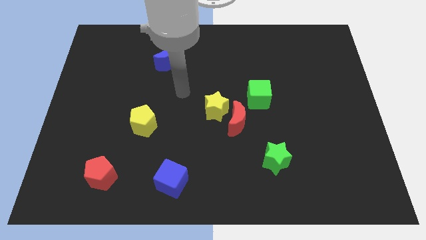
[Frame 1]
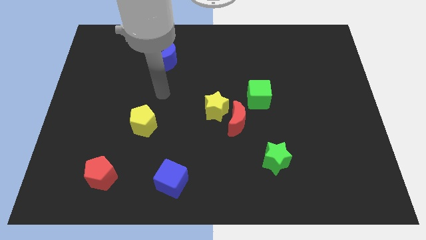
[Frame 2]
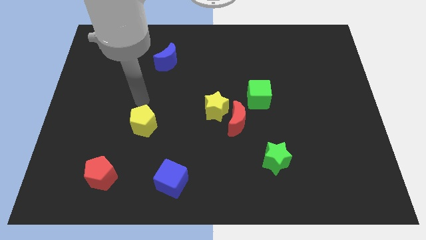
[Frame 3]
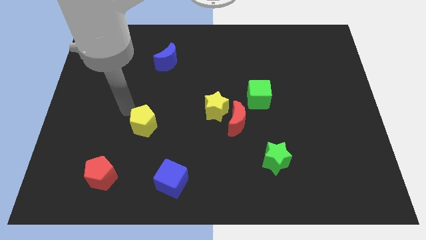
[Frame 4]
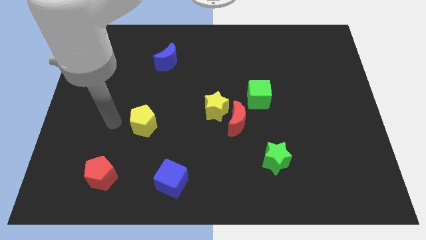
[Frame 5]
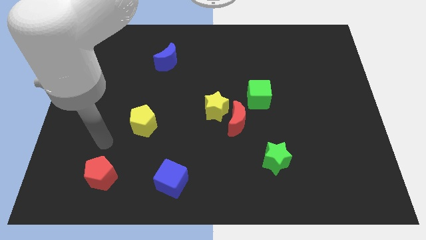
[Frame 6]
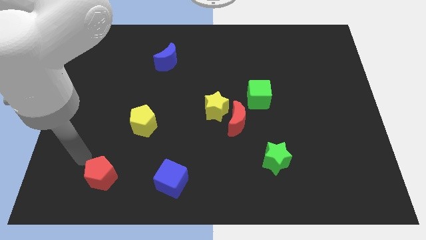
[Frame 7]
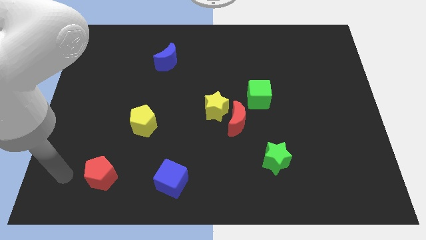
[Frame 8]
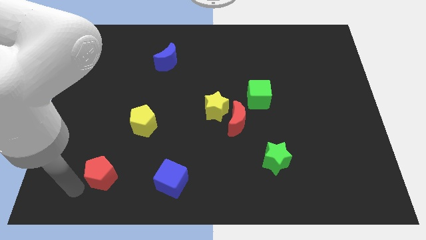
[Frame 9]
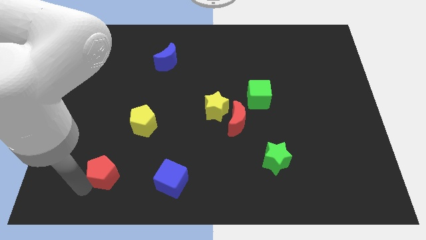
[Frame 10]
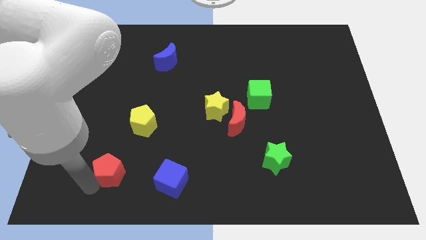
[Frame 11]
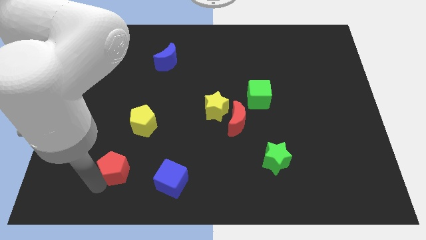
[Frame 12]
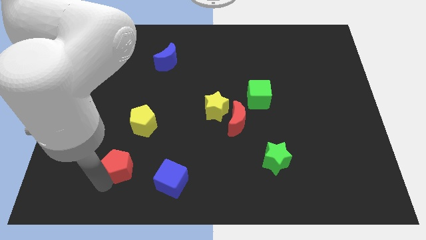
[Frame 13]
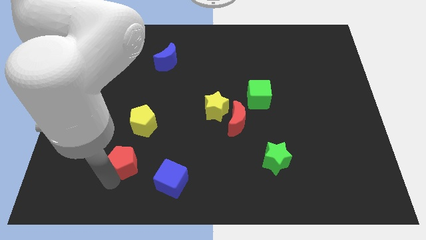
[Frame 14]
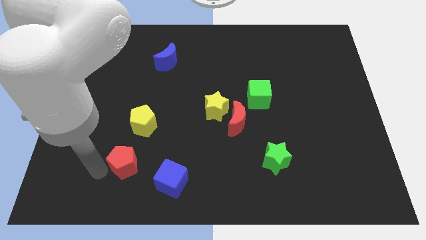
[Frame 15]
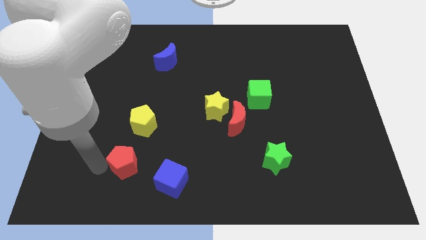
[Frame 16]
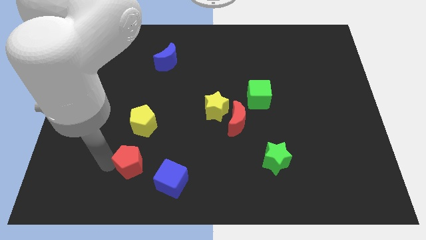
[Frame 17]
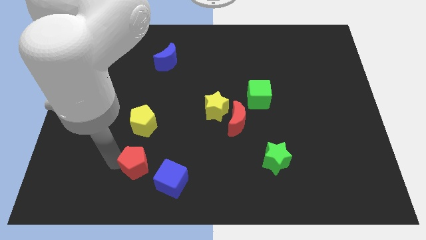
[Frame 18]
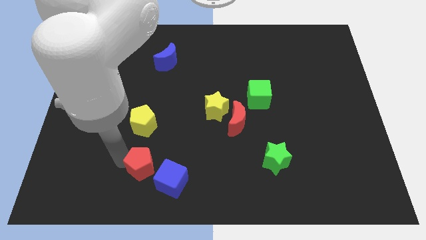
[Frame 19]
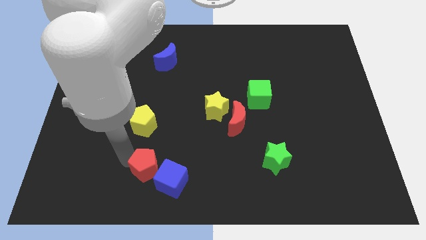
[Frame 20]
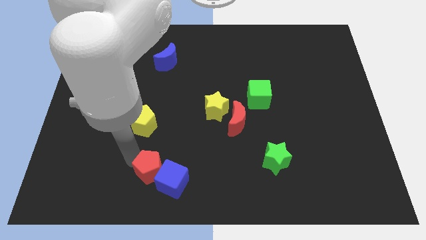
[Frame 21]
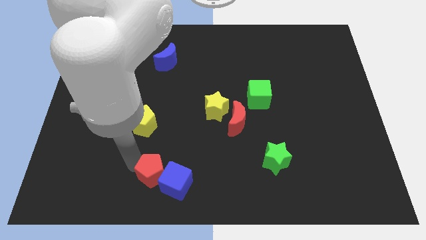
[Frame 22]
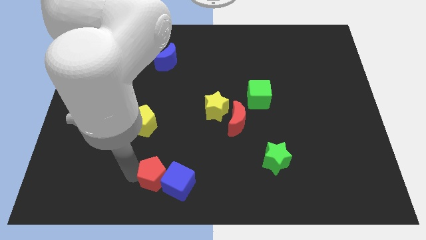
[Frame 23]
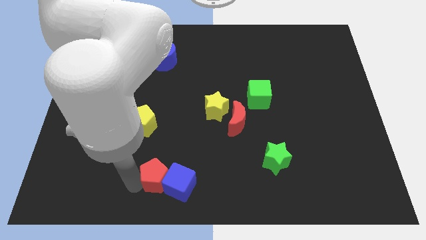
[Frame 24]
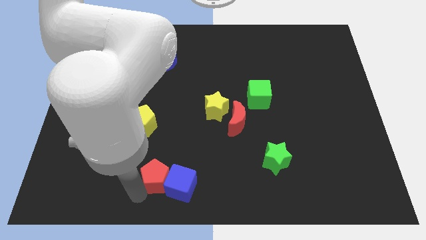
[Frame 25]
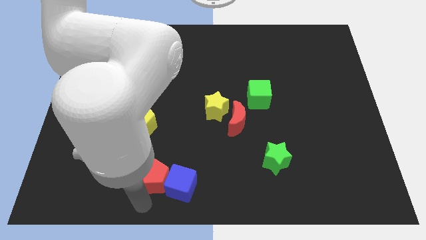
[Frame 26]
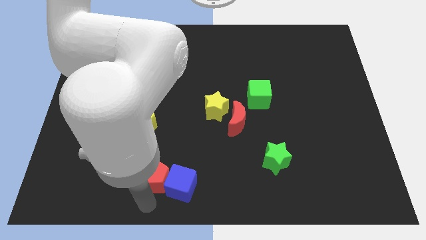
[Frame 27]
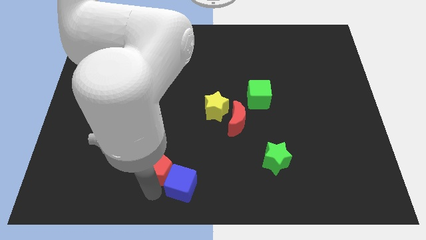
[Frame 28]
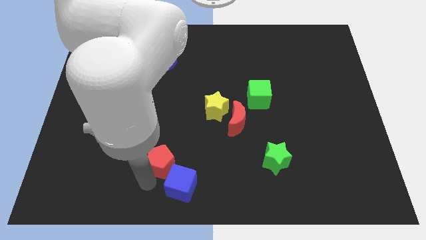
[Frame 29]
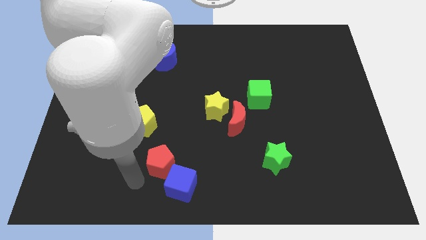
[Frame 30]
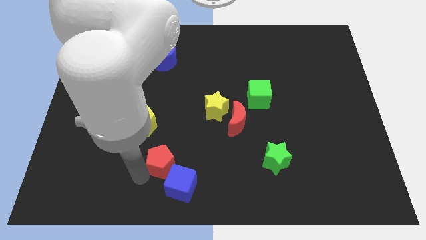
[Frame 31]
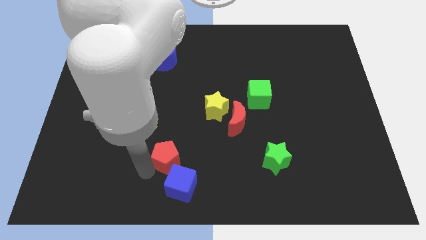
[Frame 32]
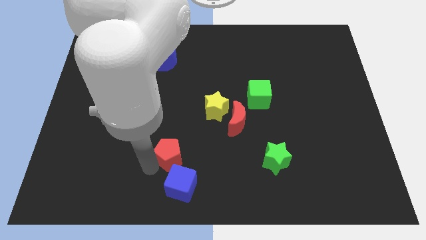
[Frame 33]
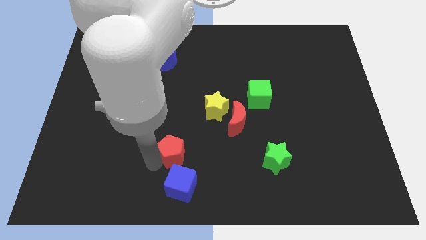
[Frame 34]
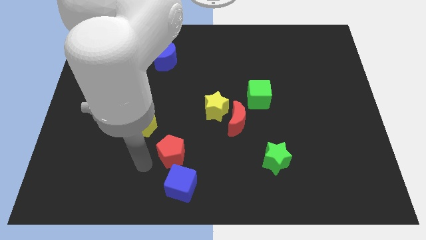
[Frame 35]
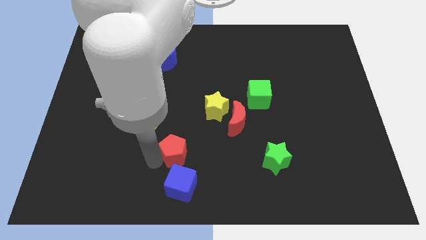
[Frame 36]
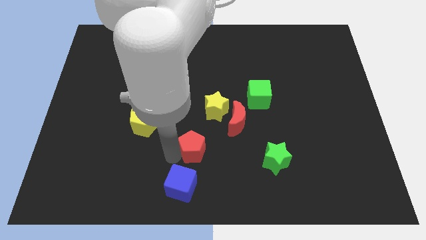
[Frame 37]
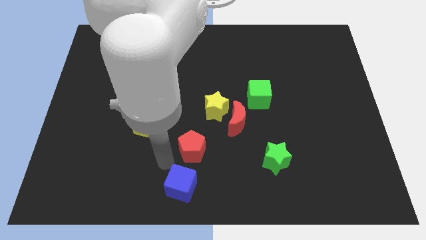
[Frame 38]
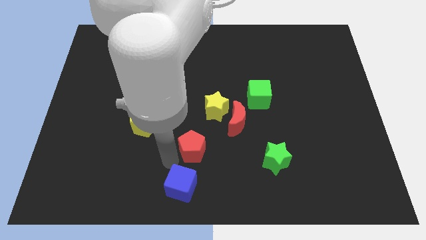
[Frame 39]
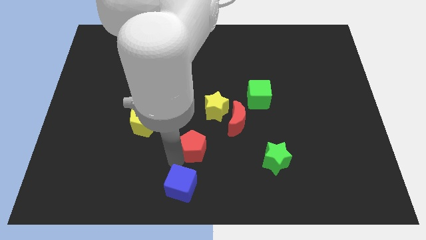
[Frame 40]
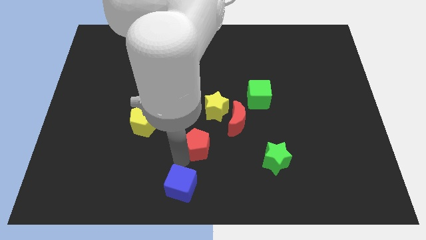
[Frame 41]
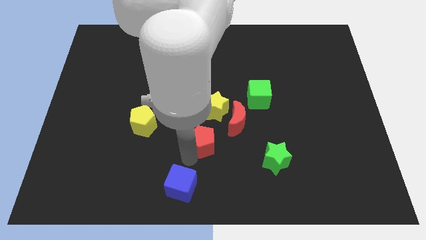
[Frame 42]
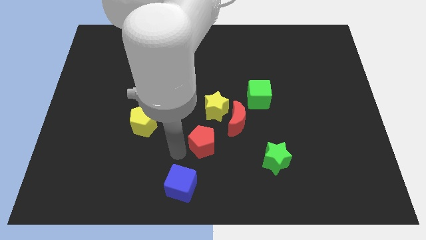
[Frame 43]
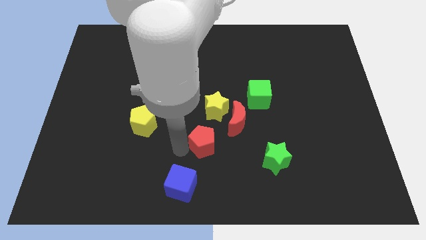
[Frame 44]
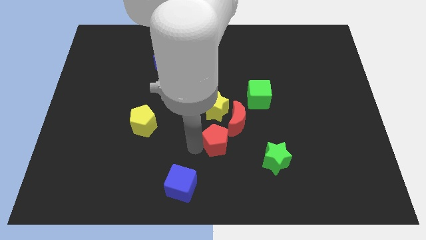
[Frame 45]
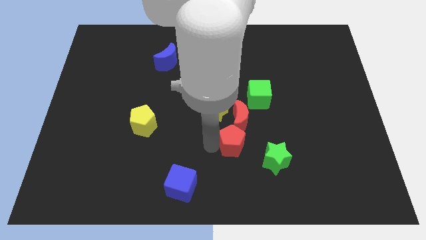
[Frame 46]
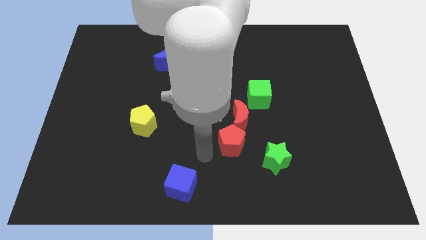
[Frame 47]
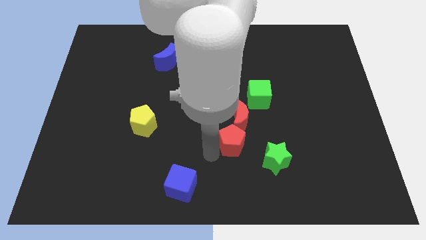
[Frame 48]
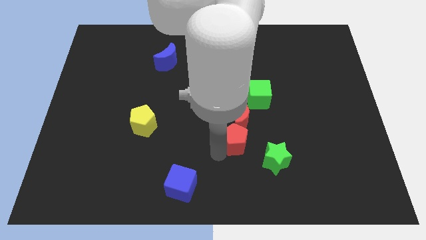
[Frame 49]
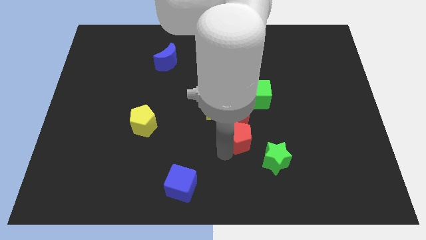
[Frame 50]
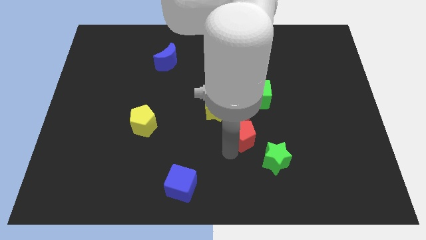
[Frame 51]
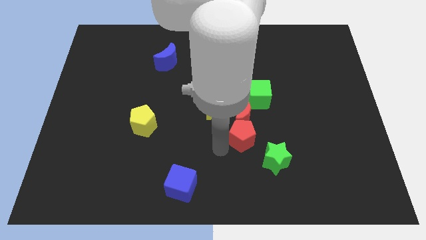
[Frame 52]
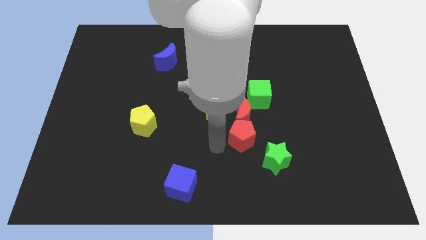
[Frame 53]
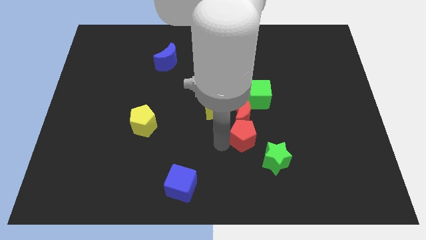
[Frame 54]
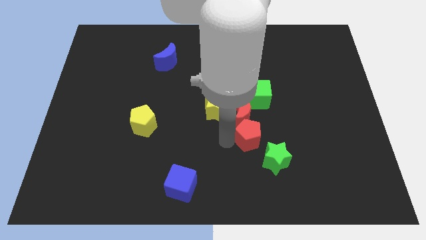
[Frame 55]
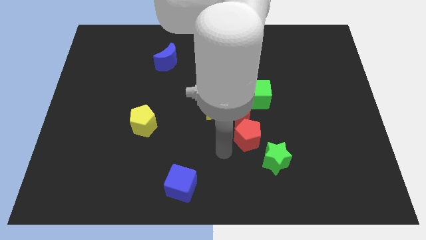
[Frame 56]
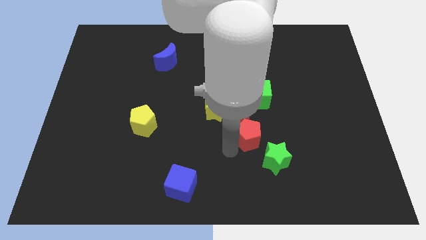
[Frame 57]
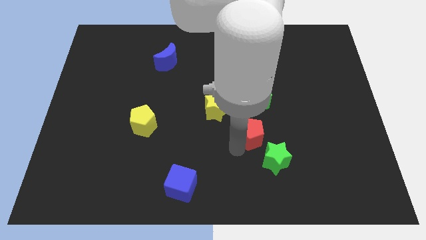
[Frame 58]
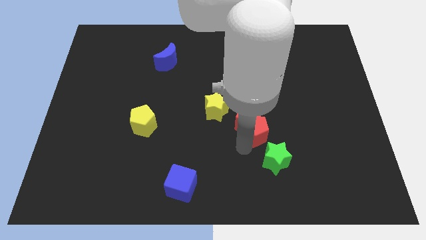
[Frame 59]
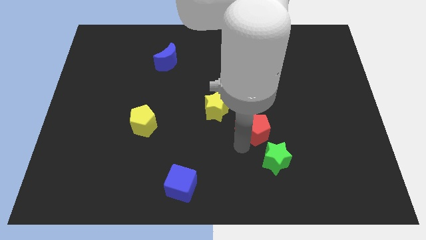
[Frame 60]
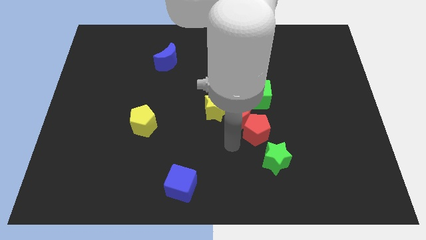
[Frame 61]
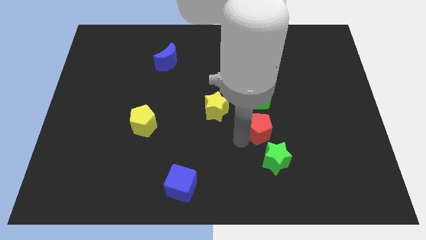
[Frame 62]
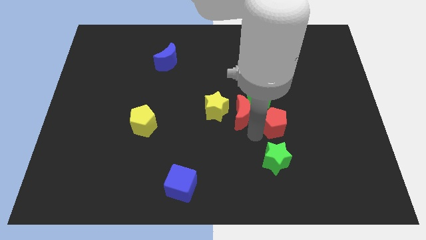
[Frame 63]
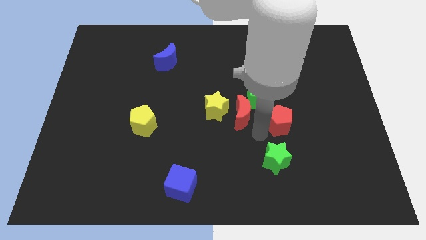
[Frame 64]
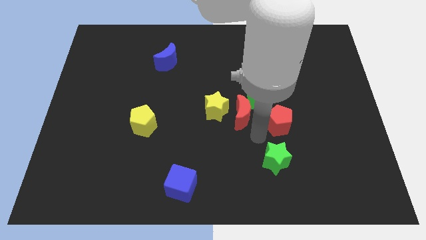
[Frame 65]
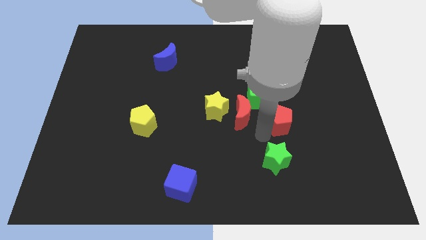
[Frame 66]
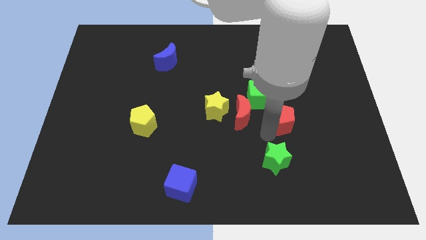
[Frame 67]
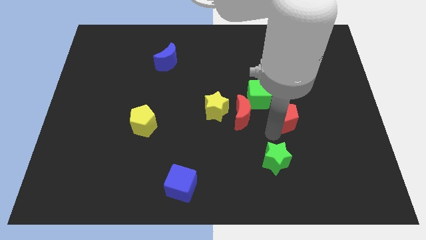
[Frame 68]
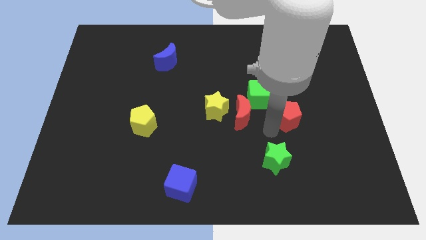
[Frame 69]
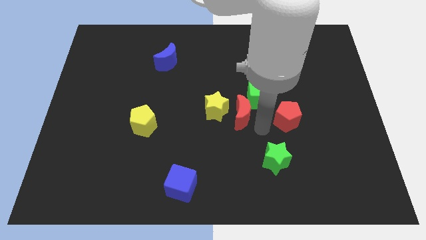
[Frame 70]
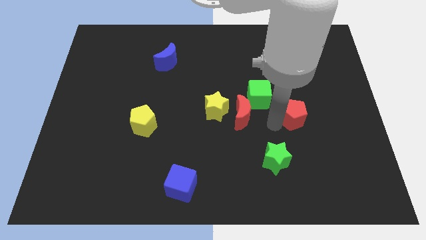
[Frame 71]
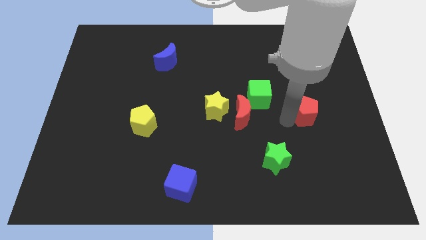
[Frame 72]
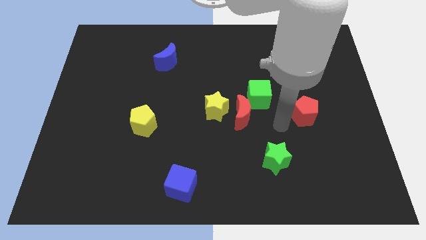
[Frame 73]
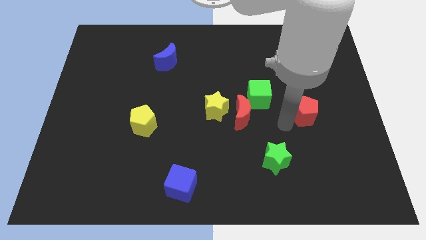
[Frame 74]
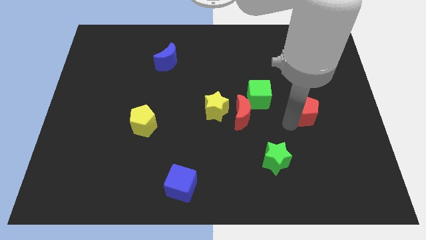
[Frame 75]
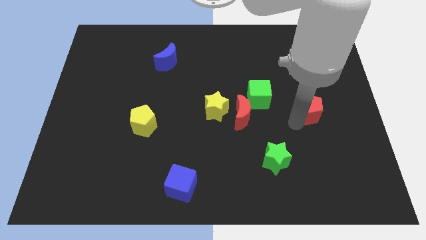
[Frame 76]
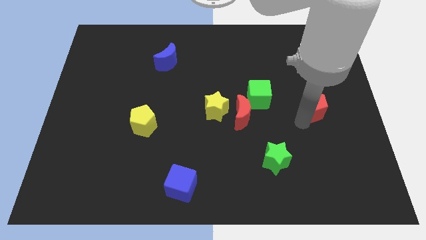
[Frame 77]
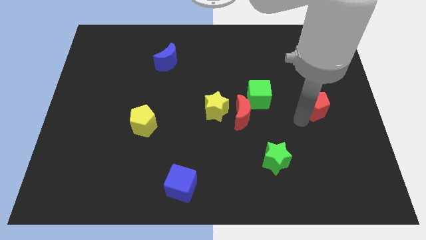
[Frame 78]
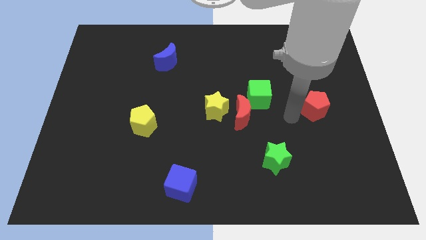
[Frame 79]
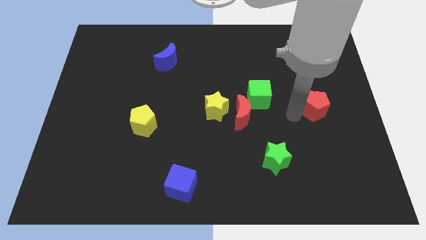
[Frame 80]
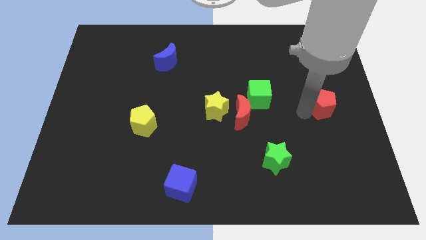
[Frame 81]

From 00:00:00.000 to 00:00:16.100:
put the red pentagon to the right side of the board

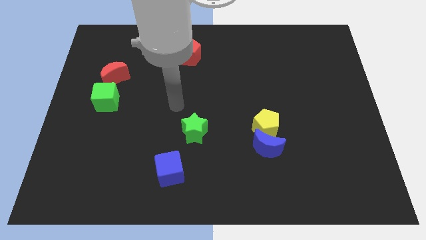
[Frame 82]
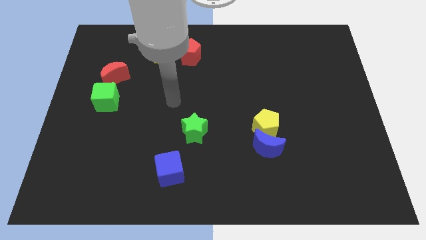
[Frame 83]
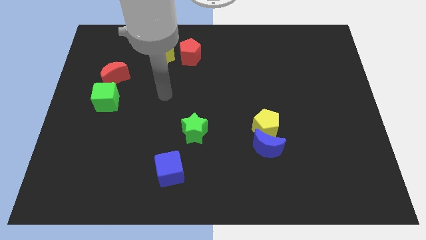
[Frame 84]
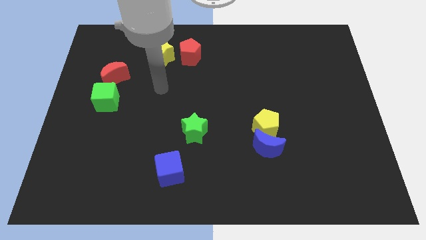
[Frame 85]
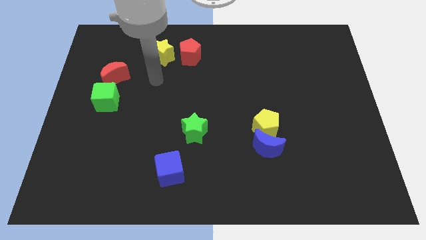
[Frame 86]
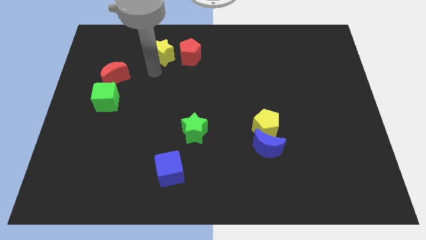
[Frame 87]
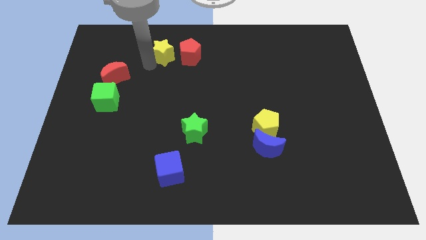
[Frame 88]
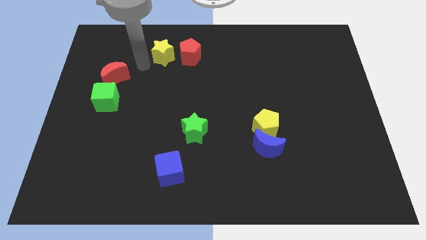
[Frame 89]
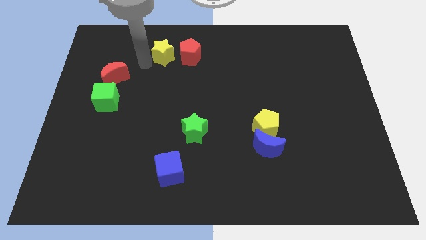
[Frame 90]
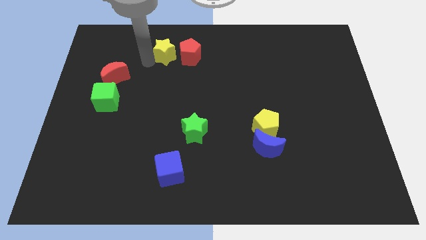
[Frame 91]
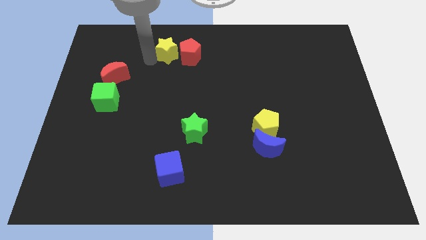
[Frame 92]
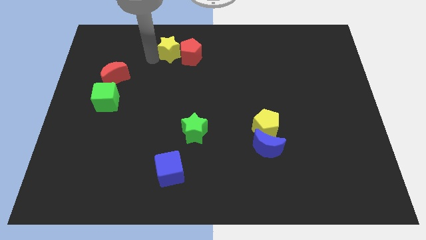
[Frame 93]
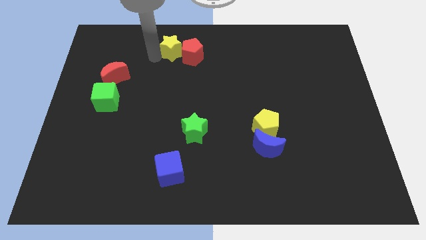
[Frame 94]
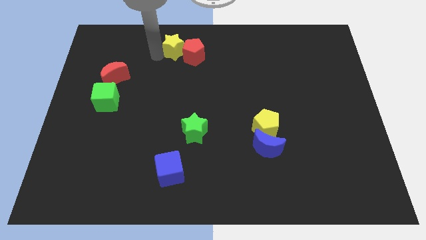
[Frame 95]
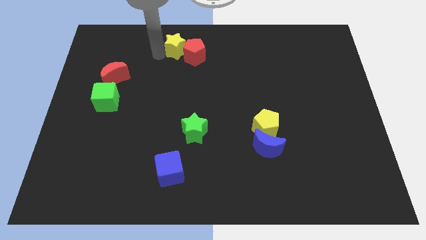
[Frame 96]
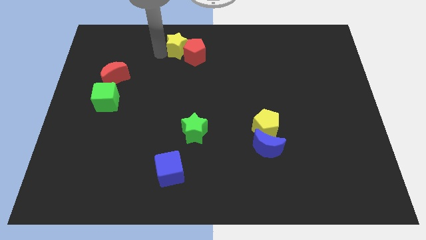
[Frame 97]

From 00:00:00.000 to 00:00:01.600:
move the yellow star to the top
